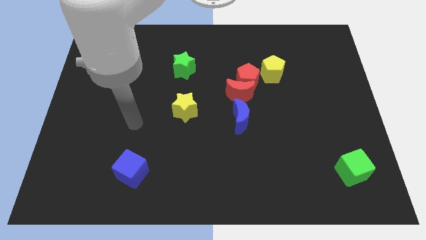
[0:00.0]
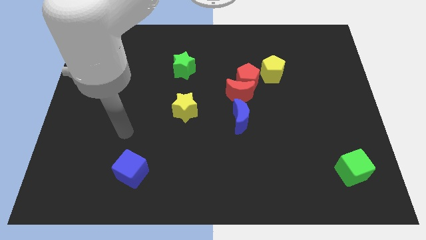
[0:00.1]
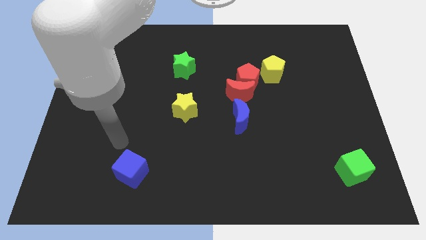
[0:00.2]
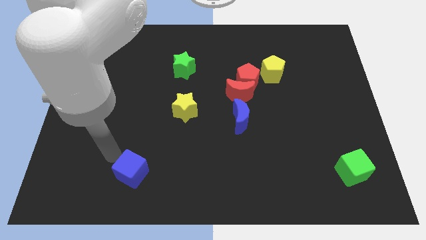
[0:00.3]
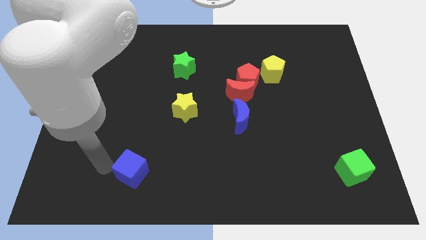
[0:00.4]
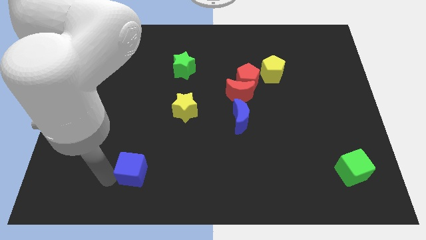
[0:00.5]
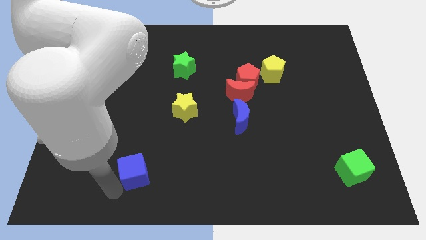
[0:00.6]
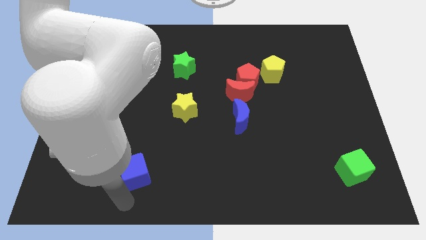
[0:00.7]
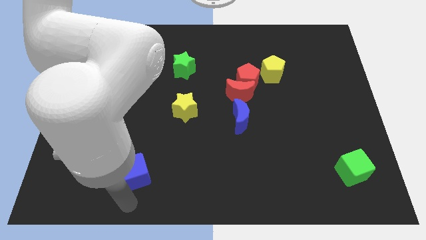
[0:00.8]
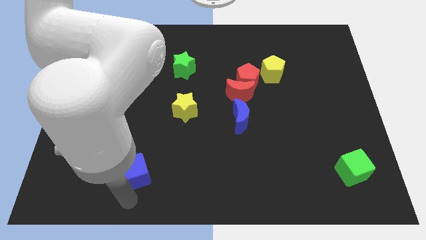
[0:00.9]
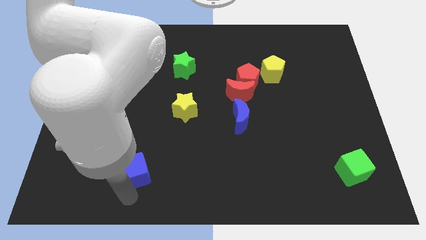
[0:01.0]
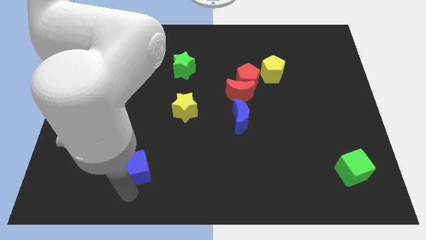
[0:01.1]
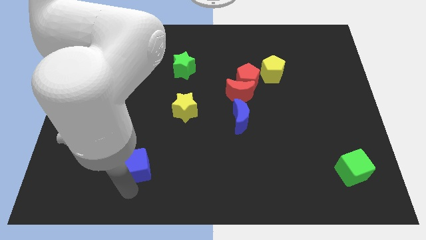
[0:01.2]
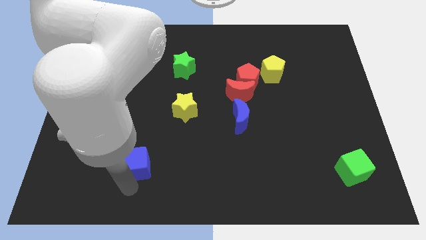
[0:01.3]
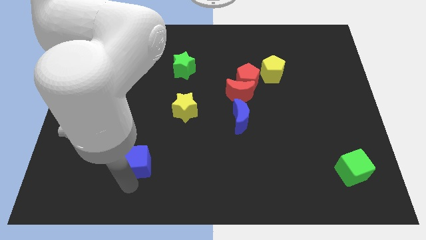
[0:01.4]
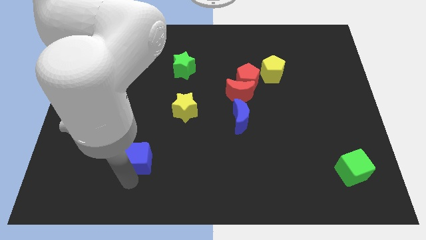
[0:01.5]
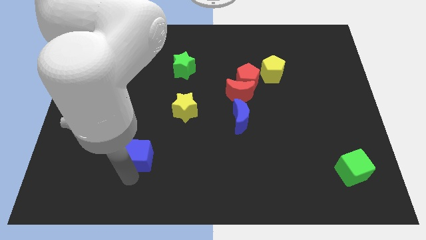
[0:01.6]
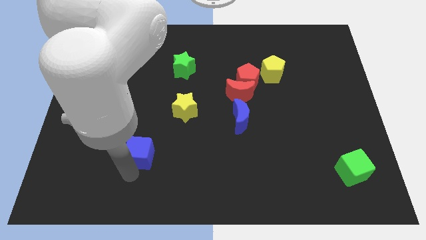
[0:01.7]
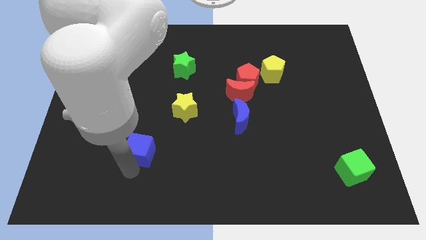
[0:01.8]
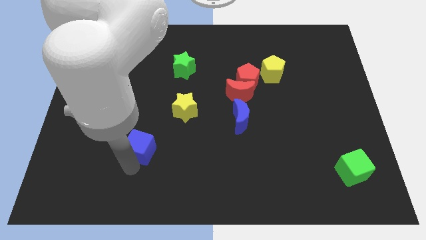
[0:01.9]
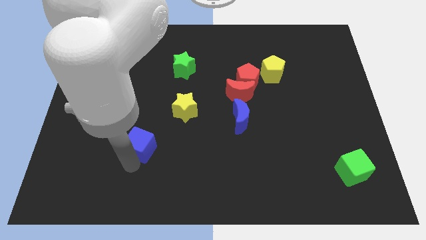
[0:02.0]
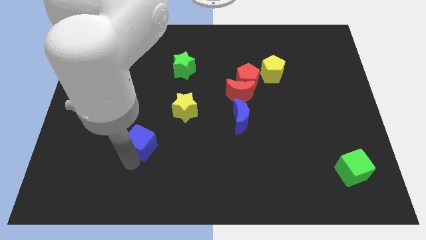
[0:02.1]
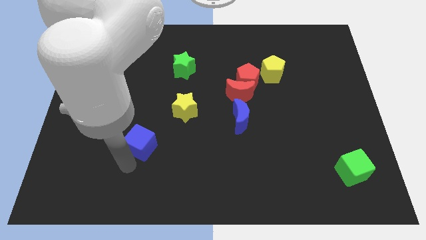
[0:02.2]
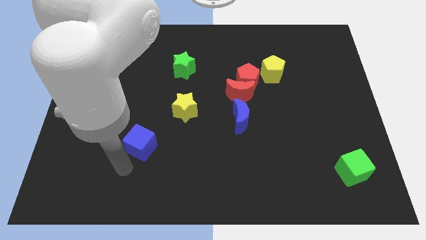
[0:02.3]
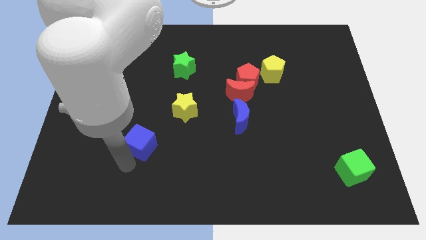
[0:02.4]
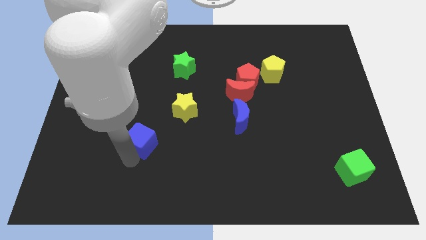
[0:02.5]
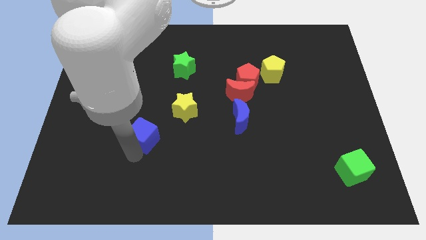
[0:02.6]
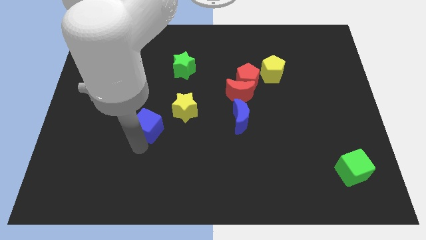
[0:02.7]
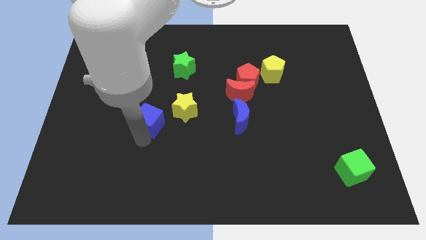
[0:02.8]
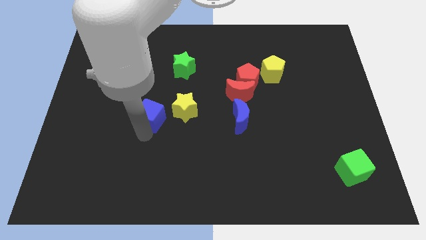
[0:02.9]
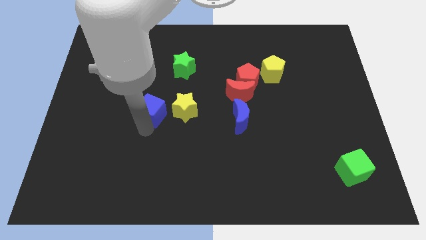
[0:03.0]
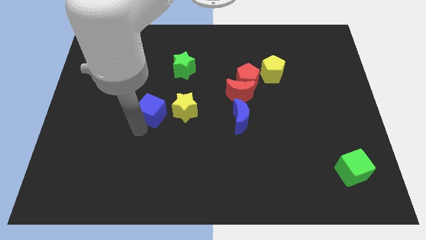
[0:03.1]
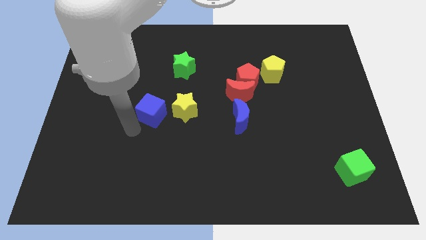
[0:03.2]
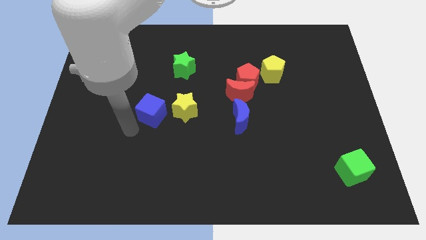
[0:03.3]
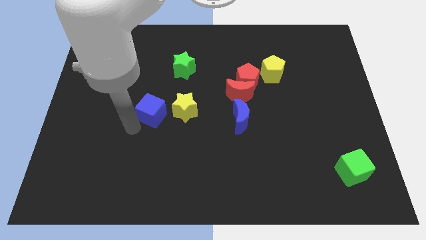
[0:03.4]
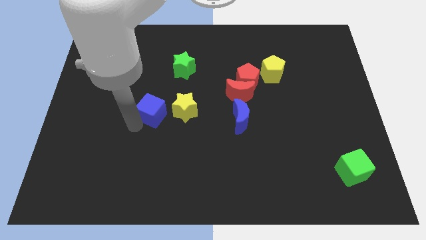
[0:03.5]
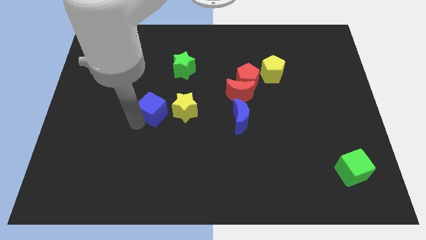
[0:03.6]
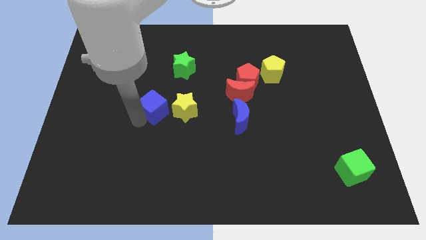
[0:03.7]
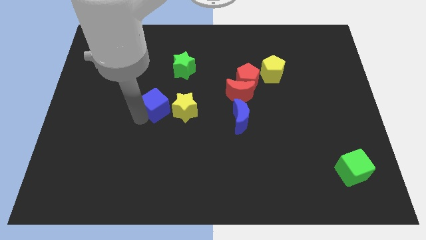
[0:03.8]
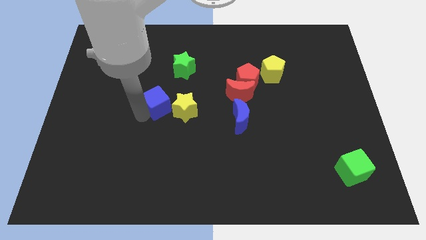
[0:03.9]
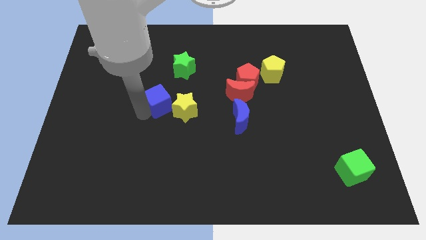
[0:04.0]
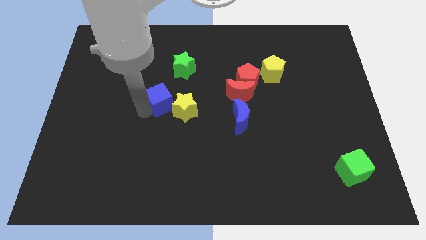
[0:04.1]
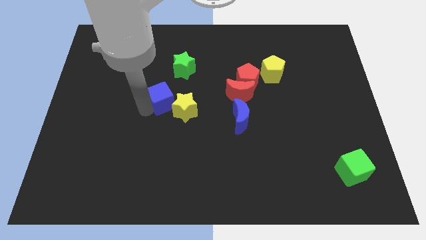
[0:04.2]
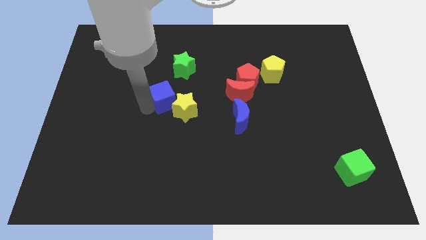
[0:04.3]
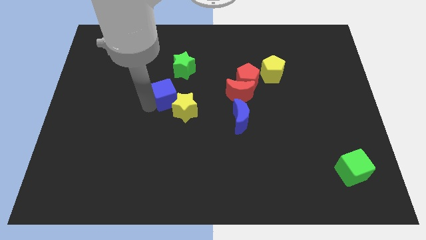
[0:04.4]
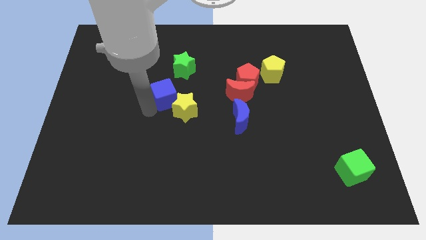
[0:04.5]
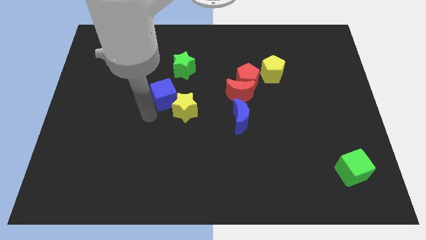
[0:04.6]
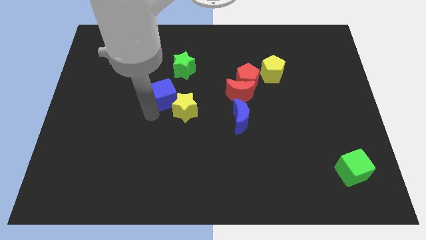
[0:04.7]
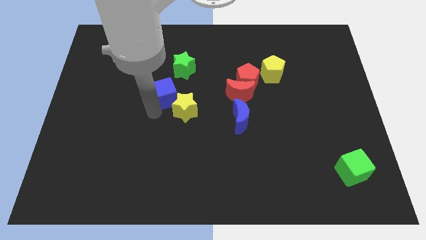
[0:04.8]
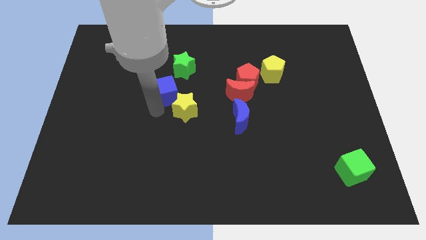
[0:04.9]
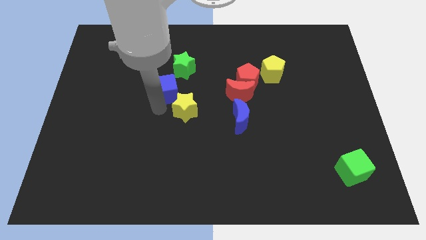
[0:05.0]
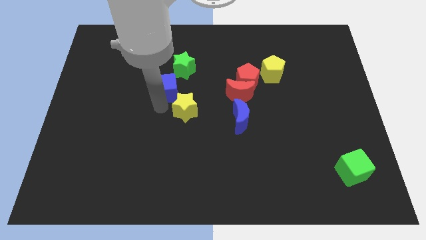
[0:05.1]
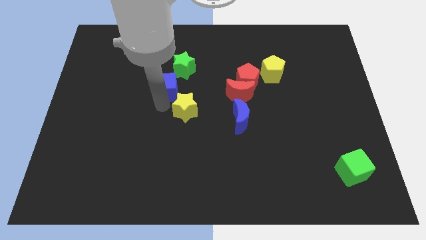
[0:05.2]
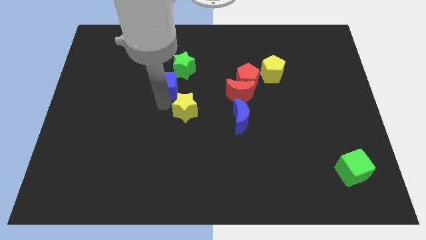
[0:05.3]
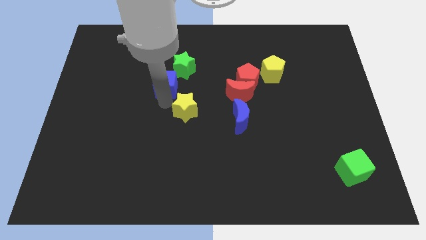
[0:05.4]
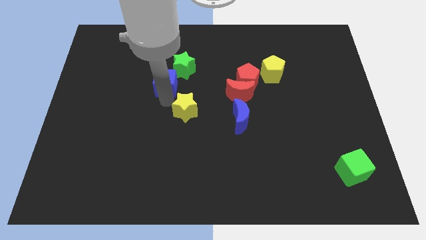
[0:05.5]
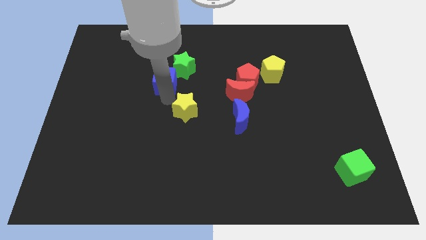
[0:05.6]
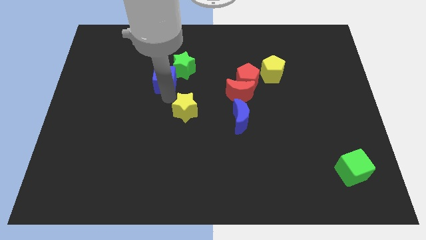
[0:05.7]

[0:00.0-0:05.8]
put the blue cube towards the green star

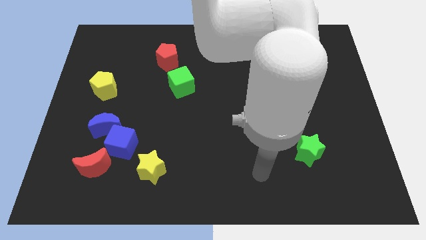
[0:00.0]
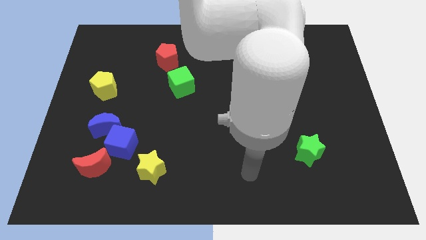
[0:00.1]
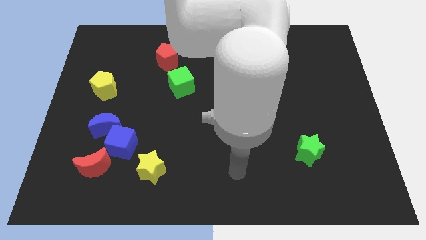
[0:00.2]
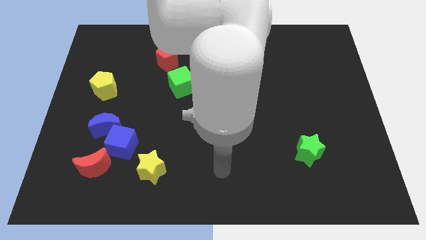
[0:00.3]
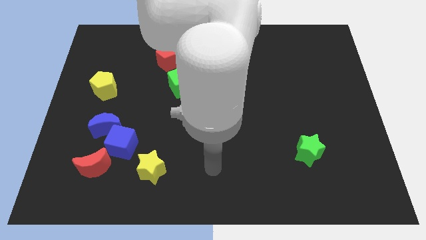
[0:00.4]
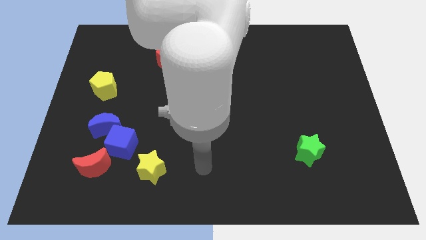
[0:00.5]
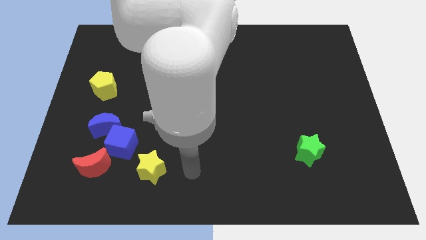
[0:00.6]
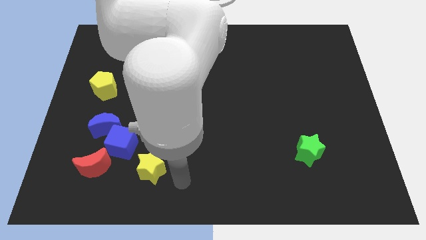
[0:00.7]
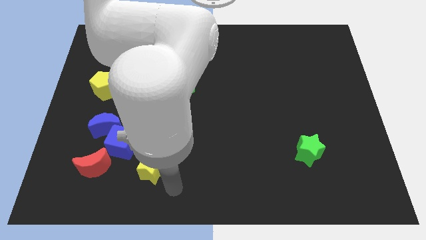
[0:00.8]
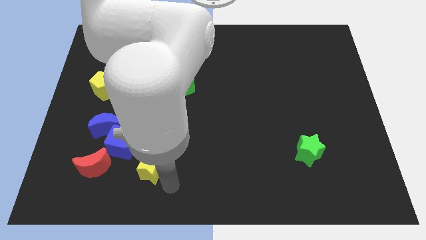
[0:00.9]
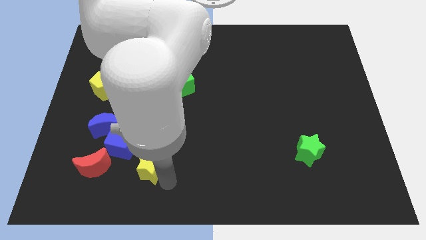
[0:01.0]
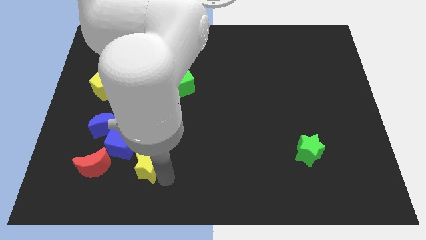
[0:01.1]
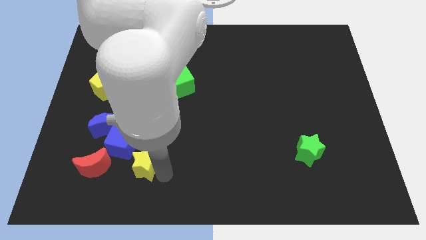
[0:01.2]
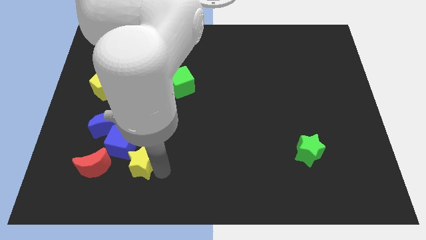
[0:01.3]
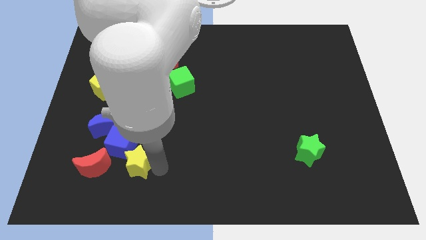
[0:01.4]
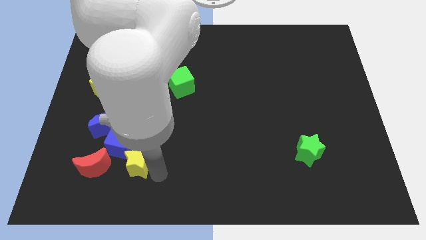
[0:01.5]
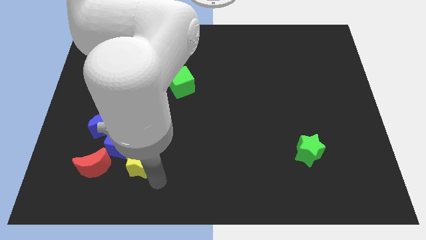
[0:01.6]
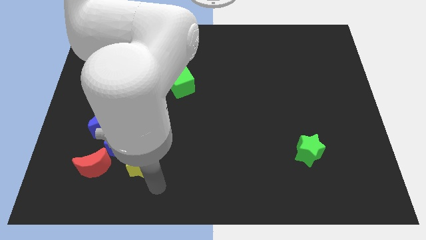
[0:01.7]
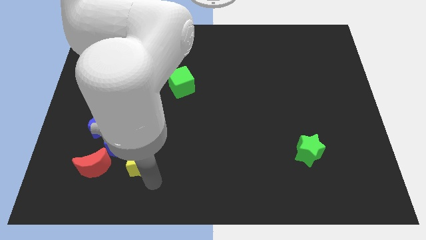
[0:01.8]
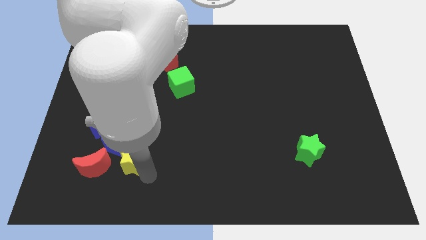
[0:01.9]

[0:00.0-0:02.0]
slide the yellow star next to the blue cube

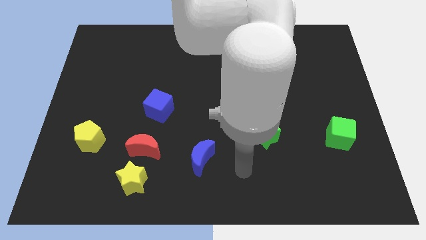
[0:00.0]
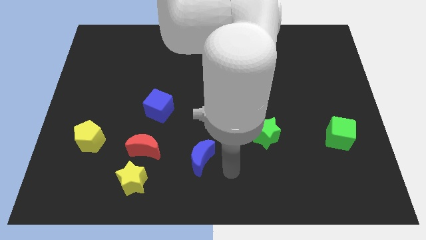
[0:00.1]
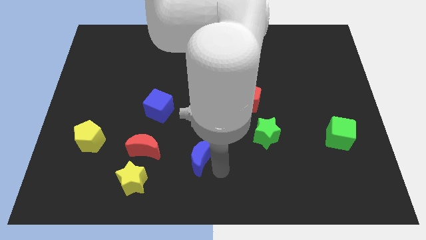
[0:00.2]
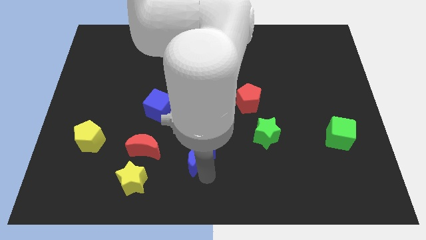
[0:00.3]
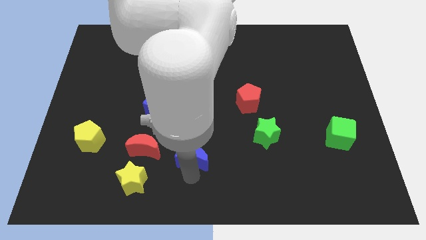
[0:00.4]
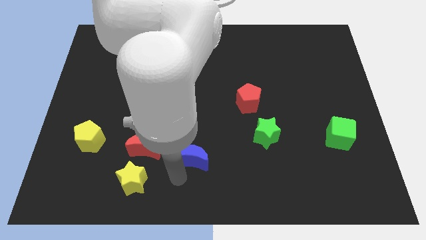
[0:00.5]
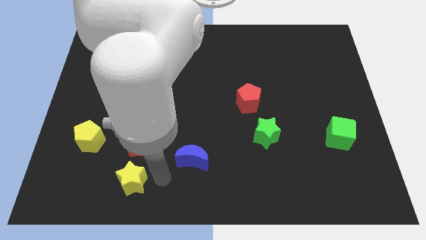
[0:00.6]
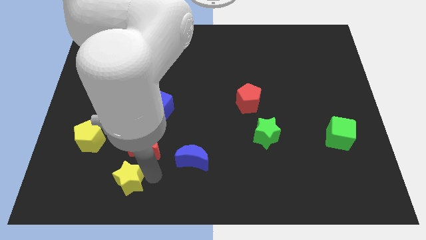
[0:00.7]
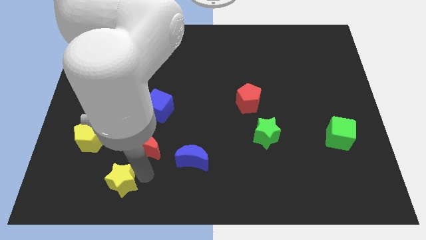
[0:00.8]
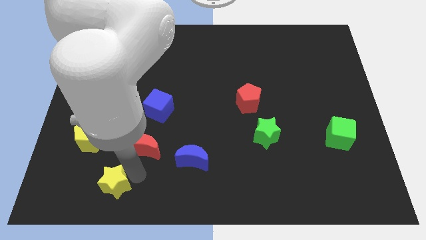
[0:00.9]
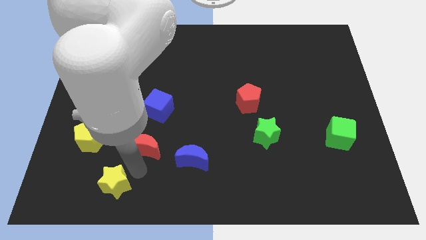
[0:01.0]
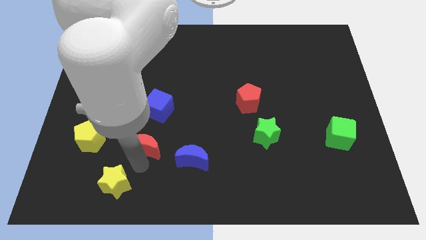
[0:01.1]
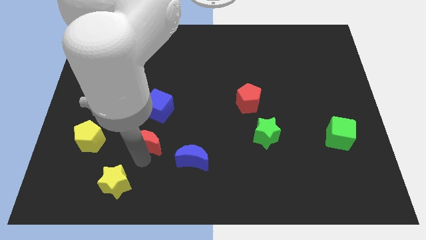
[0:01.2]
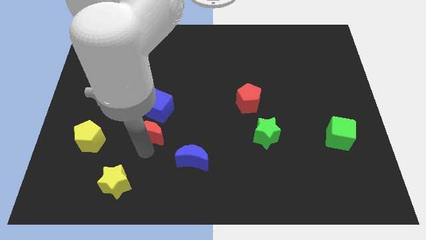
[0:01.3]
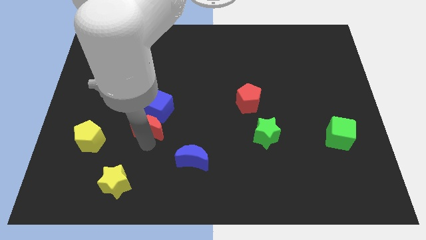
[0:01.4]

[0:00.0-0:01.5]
push the red moon next to the blue cube
